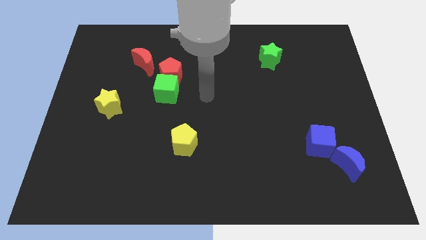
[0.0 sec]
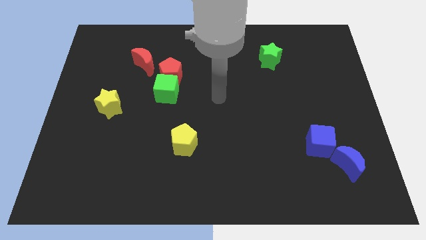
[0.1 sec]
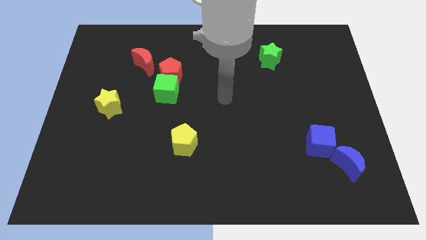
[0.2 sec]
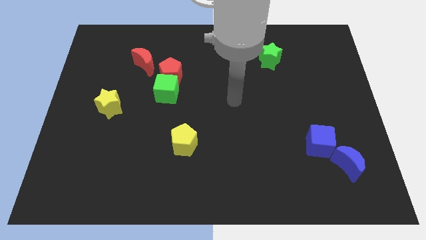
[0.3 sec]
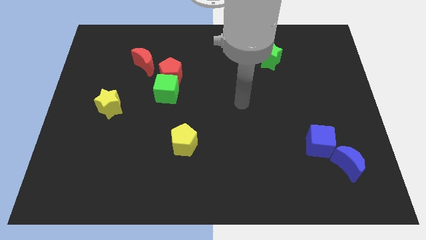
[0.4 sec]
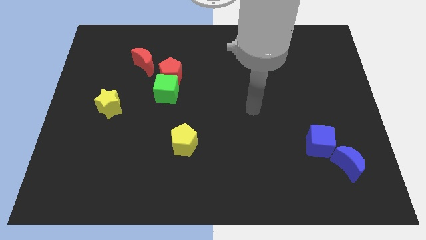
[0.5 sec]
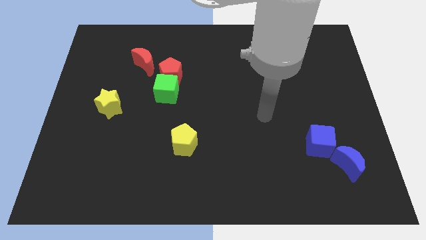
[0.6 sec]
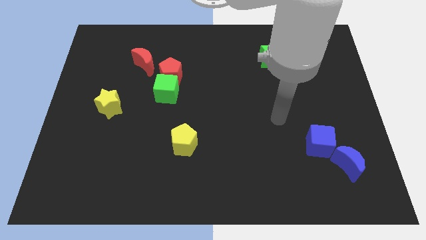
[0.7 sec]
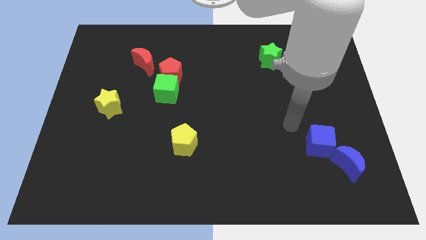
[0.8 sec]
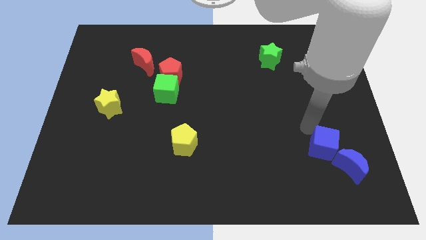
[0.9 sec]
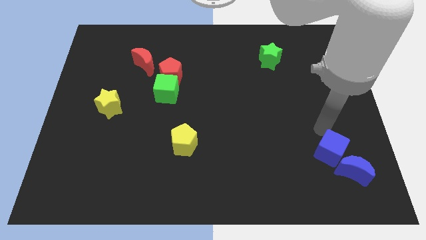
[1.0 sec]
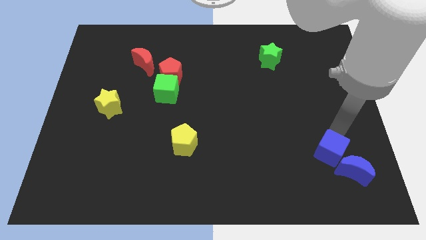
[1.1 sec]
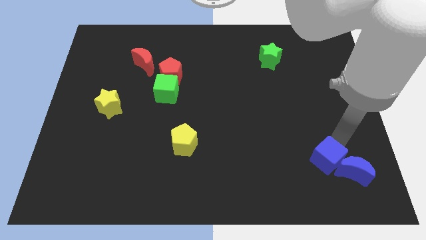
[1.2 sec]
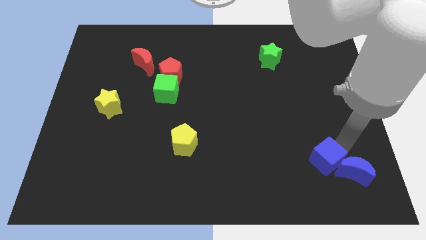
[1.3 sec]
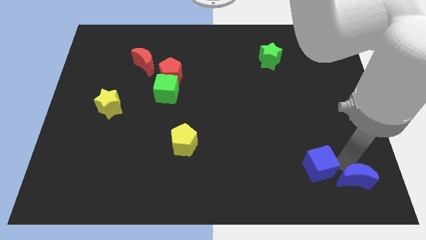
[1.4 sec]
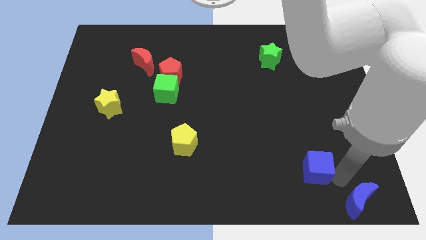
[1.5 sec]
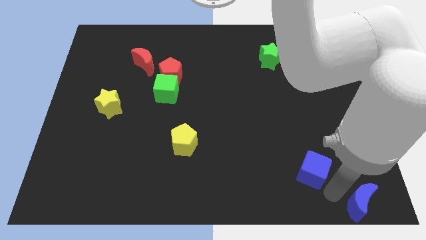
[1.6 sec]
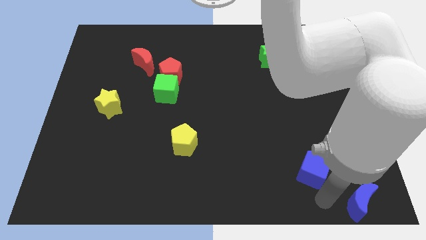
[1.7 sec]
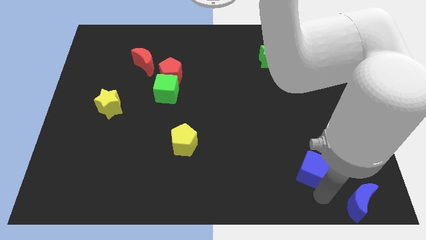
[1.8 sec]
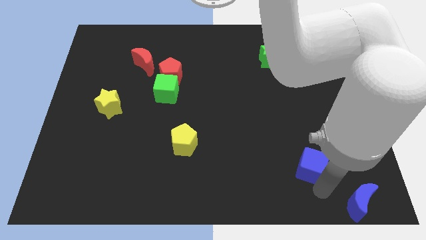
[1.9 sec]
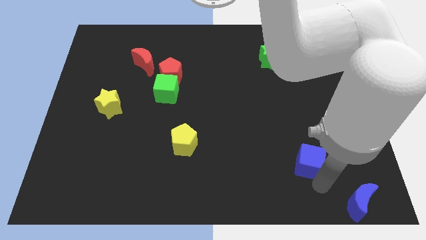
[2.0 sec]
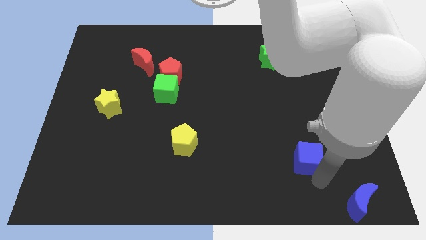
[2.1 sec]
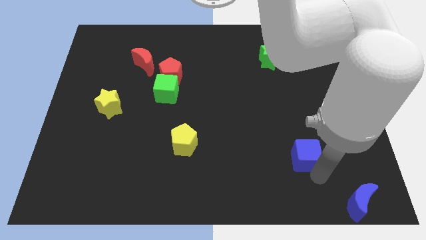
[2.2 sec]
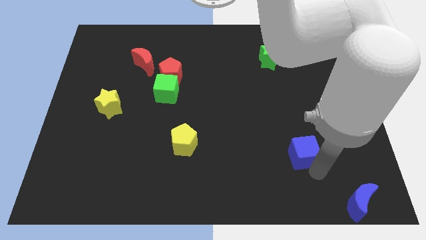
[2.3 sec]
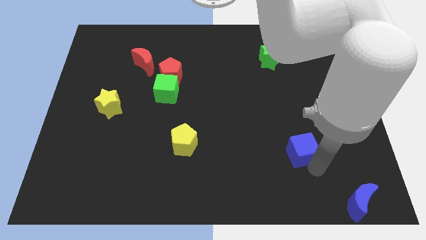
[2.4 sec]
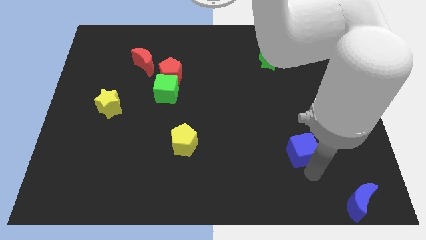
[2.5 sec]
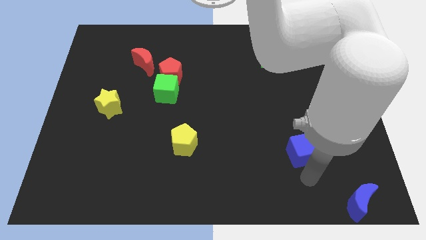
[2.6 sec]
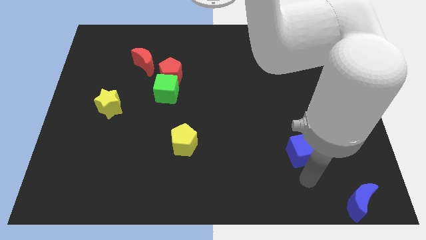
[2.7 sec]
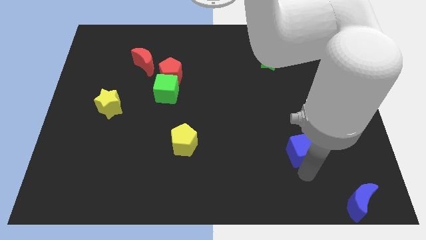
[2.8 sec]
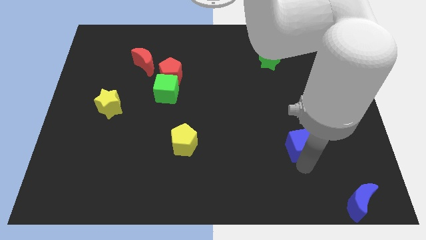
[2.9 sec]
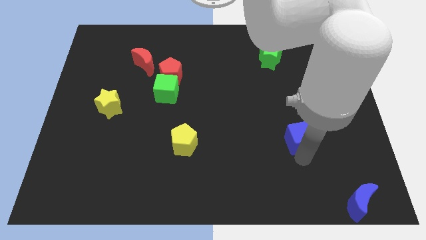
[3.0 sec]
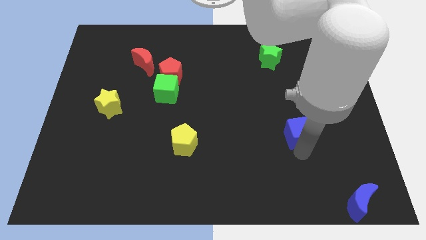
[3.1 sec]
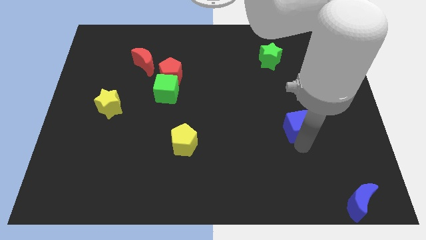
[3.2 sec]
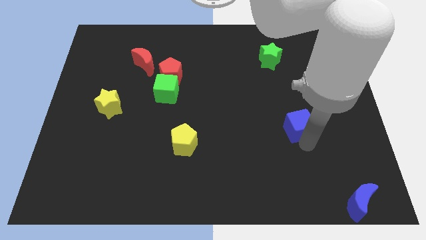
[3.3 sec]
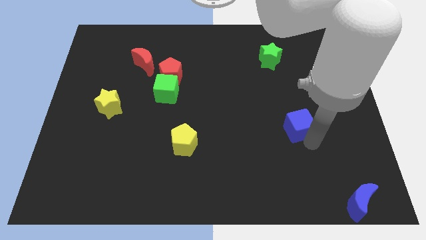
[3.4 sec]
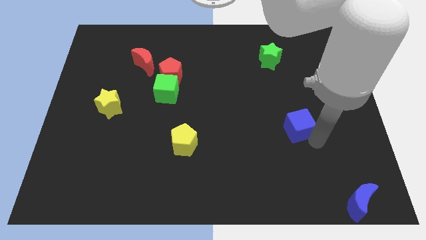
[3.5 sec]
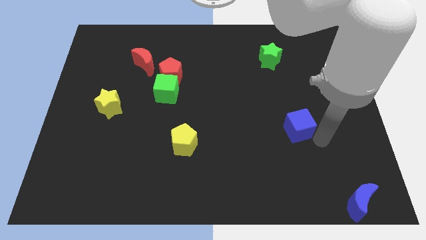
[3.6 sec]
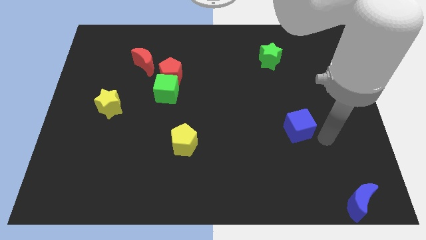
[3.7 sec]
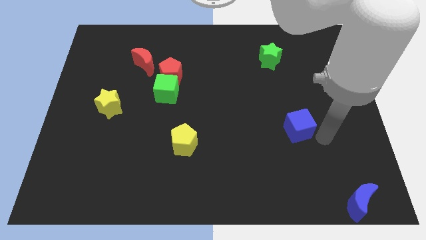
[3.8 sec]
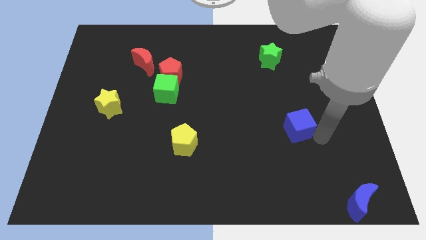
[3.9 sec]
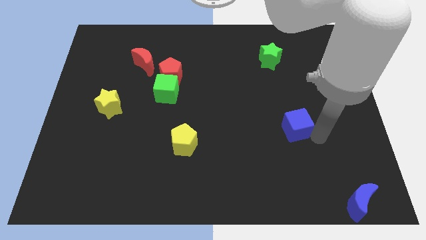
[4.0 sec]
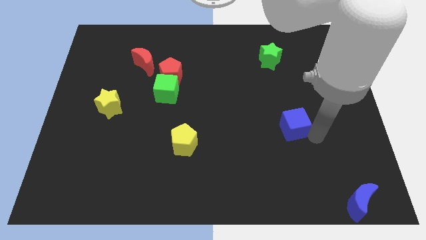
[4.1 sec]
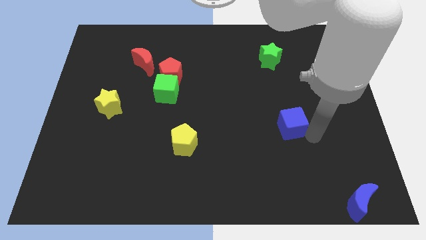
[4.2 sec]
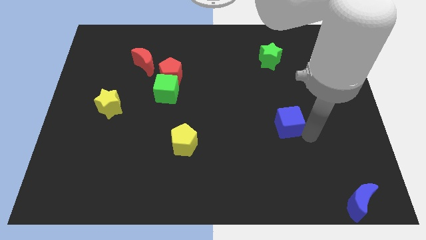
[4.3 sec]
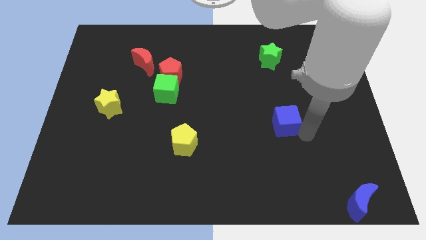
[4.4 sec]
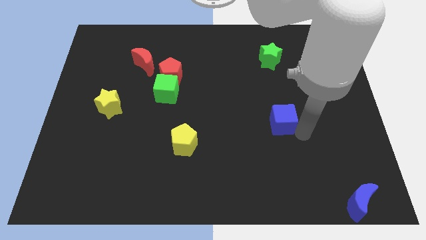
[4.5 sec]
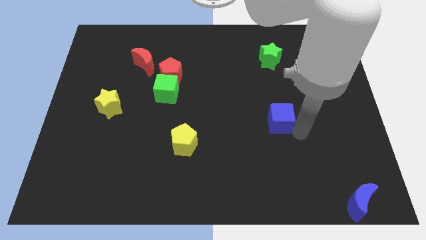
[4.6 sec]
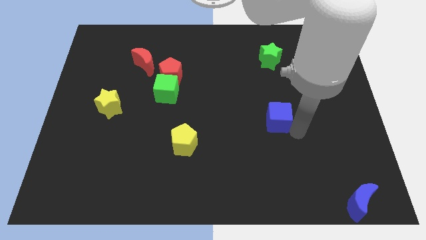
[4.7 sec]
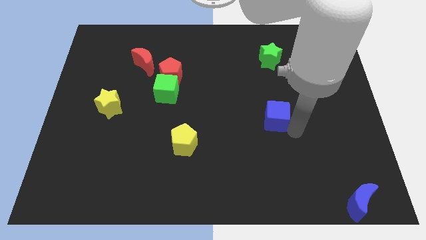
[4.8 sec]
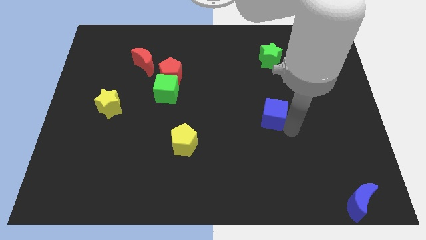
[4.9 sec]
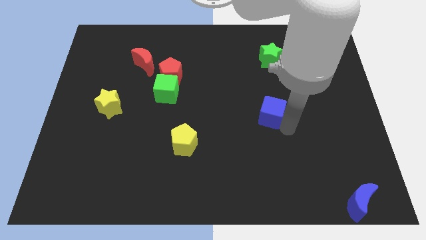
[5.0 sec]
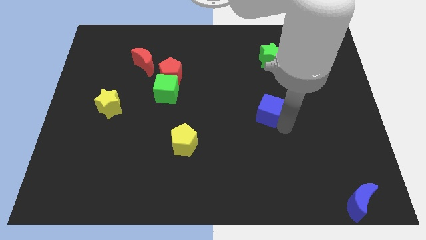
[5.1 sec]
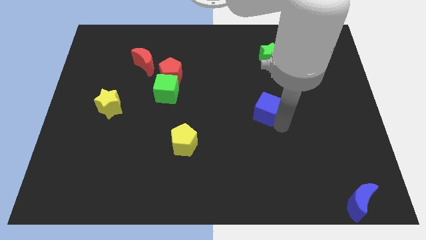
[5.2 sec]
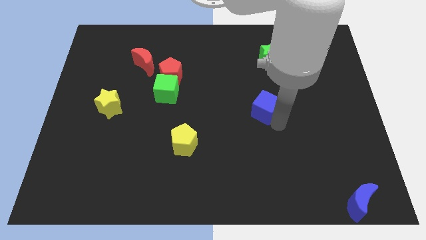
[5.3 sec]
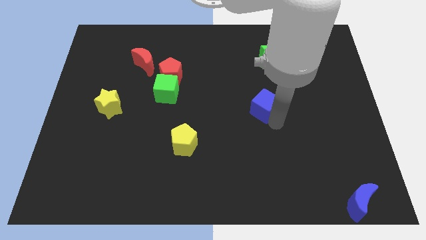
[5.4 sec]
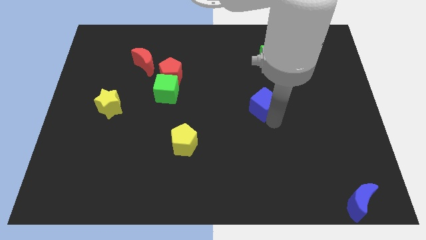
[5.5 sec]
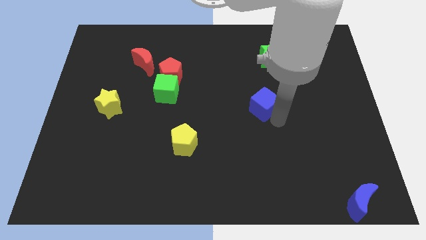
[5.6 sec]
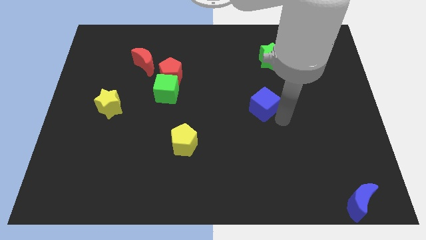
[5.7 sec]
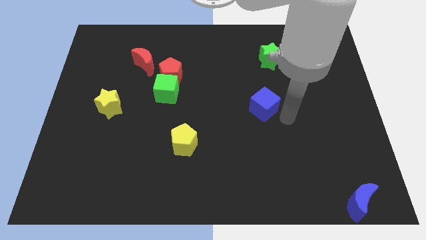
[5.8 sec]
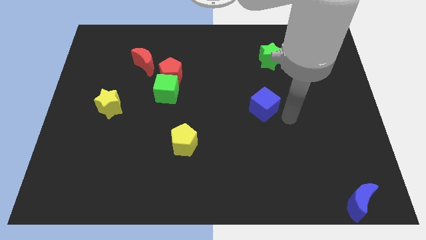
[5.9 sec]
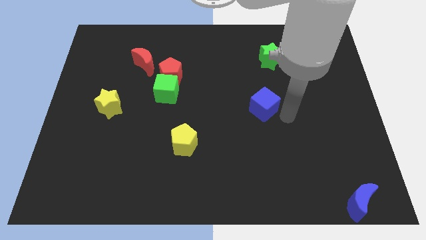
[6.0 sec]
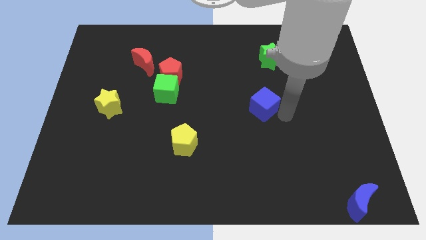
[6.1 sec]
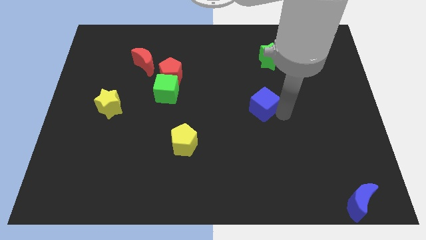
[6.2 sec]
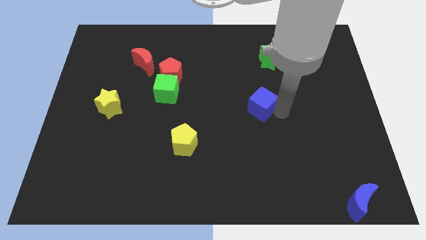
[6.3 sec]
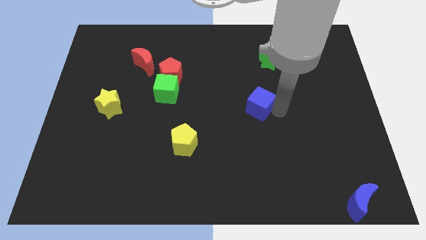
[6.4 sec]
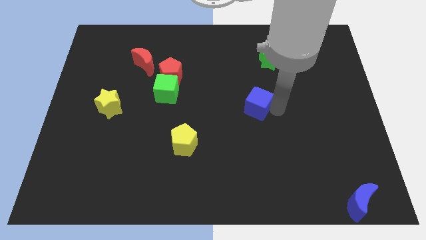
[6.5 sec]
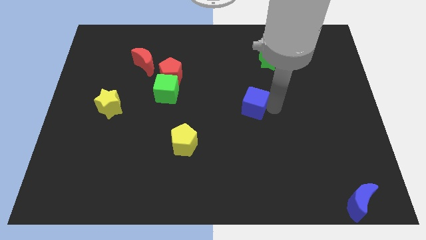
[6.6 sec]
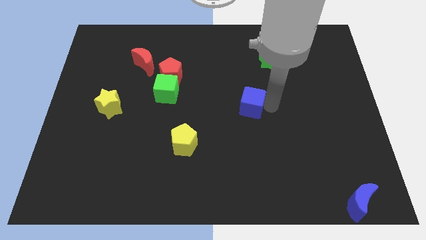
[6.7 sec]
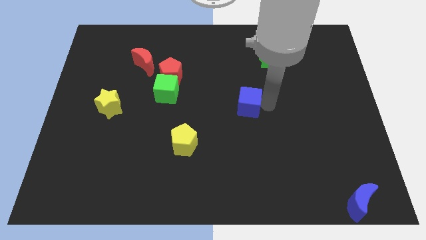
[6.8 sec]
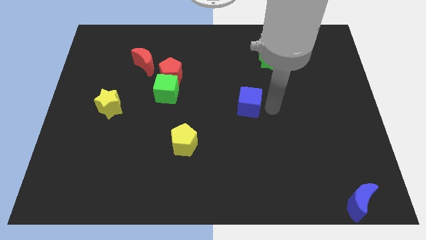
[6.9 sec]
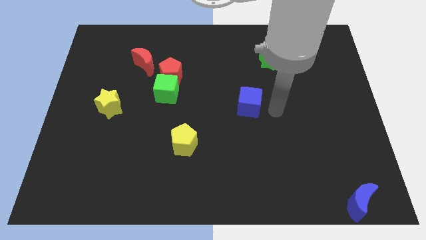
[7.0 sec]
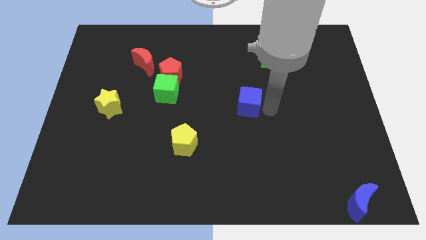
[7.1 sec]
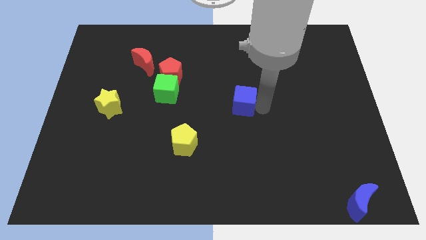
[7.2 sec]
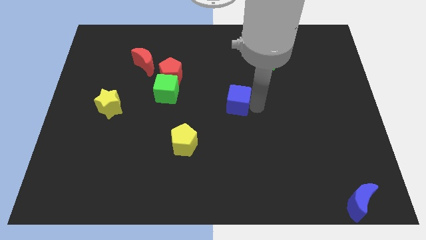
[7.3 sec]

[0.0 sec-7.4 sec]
move the blue cube diagonally up and to the left

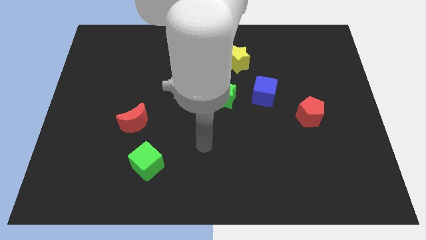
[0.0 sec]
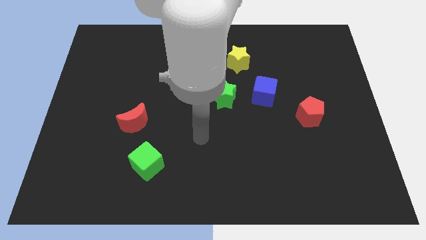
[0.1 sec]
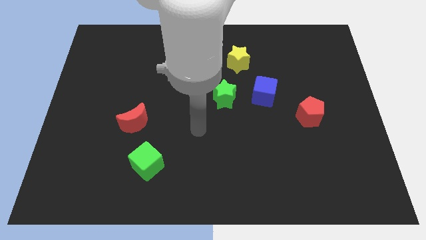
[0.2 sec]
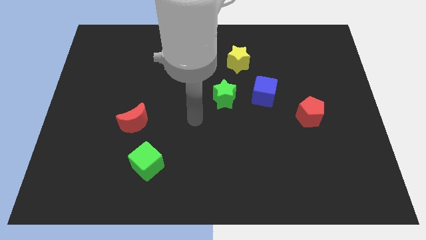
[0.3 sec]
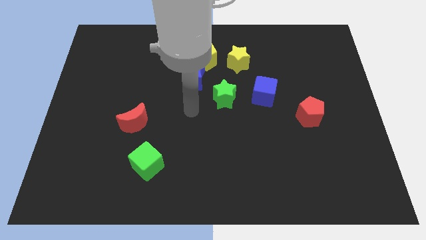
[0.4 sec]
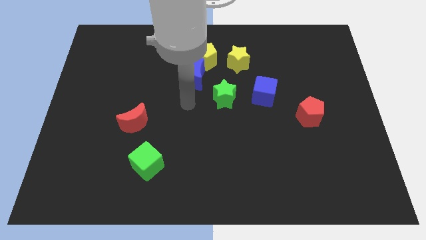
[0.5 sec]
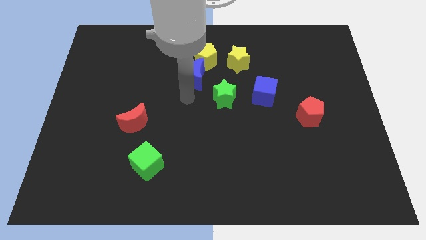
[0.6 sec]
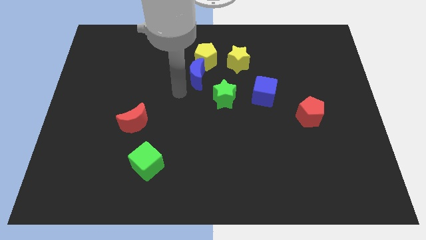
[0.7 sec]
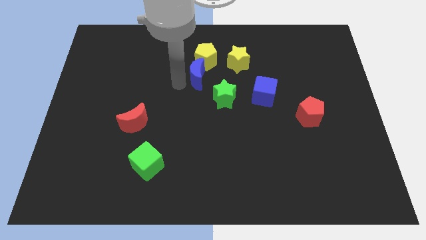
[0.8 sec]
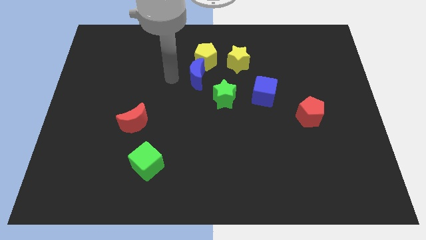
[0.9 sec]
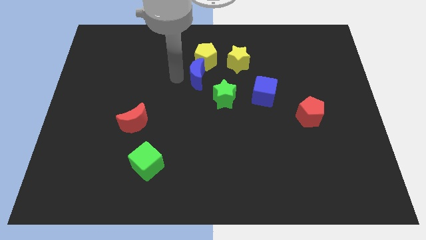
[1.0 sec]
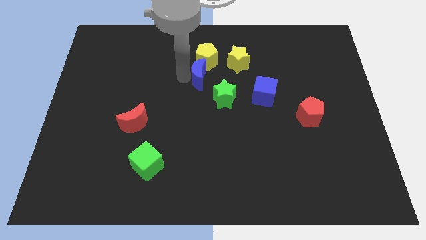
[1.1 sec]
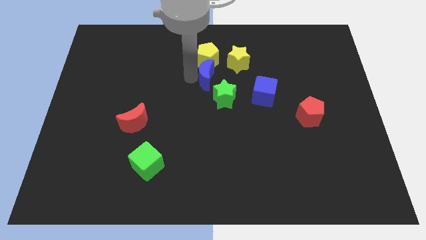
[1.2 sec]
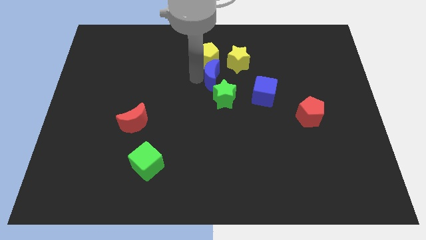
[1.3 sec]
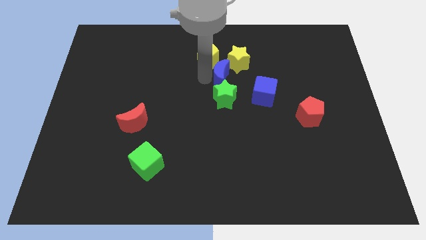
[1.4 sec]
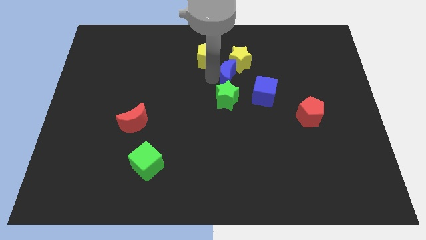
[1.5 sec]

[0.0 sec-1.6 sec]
slide the blue moon right a little
